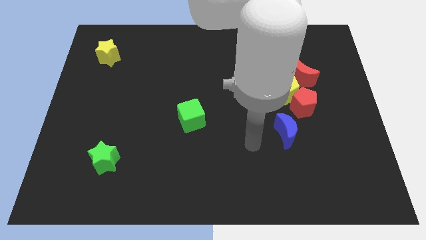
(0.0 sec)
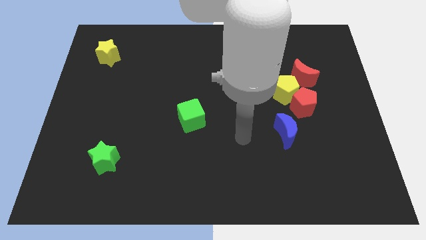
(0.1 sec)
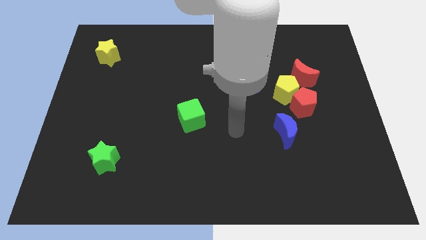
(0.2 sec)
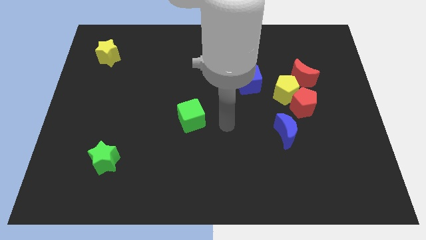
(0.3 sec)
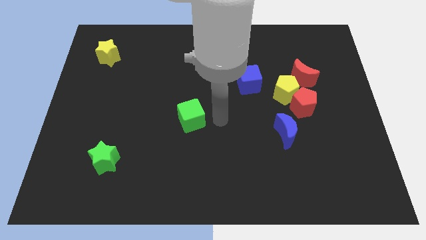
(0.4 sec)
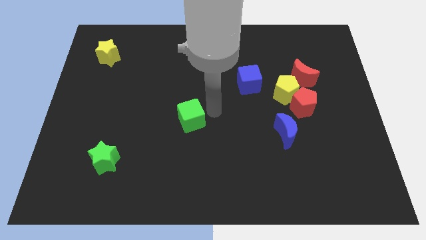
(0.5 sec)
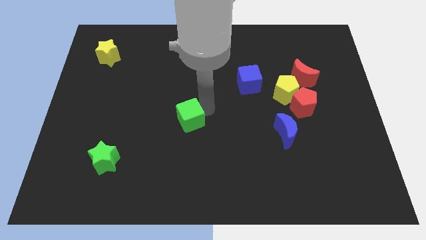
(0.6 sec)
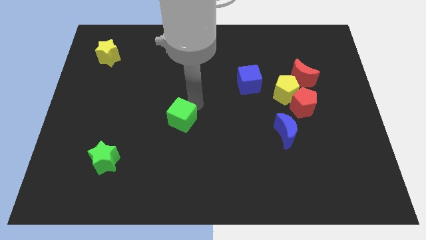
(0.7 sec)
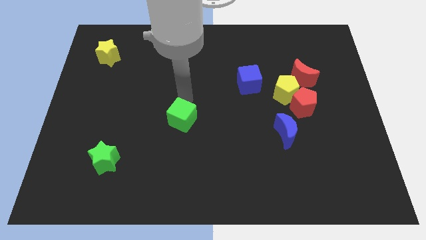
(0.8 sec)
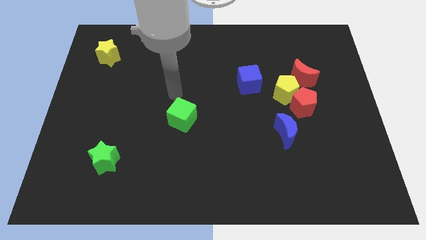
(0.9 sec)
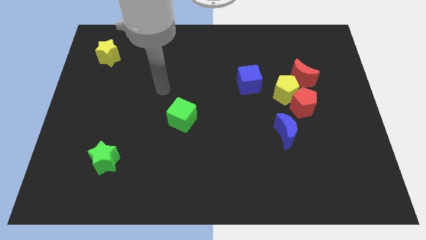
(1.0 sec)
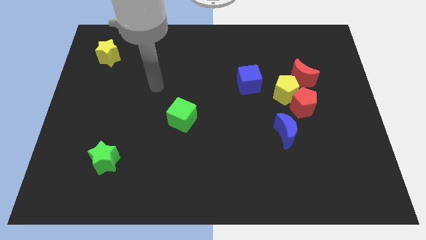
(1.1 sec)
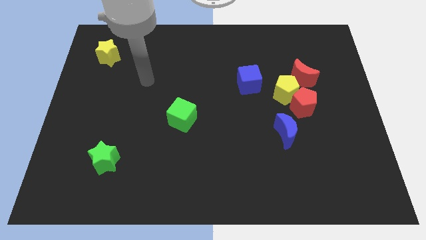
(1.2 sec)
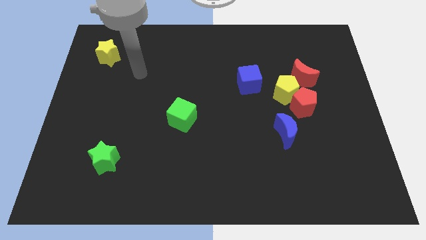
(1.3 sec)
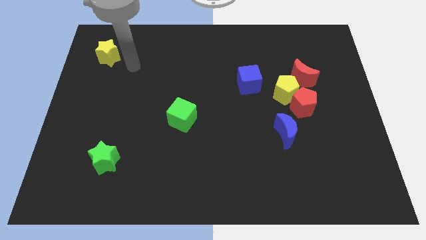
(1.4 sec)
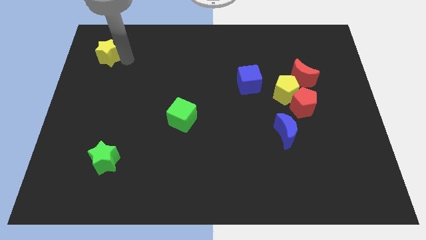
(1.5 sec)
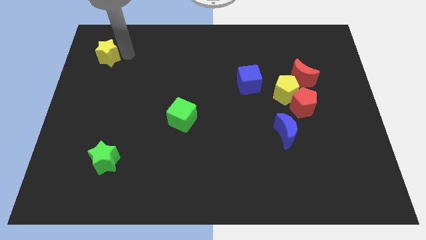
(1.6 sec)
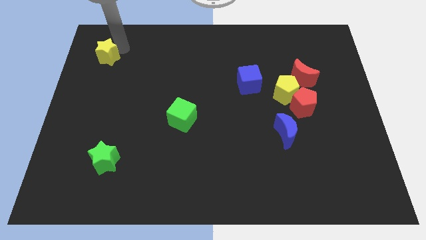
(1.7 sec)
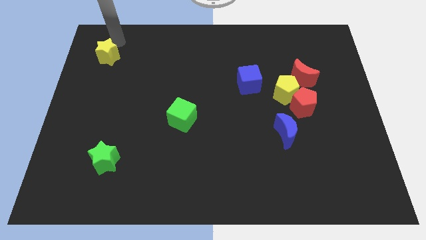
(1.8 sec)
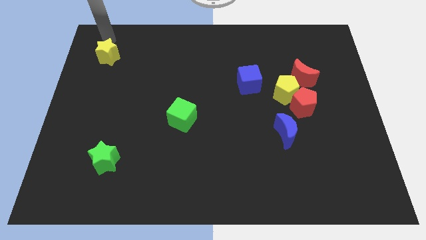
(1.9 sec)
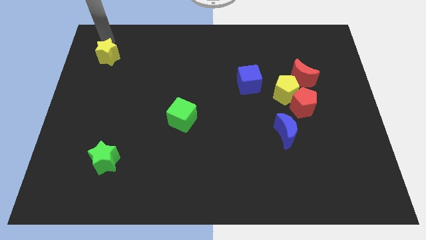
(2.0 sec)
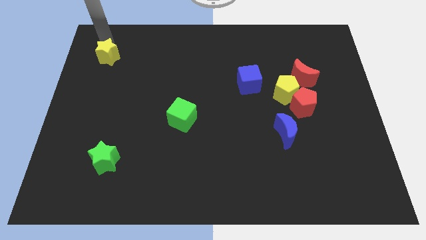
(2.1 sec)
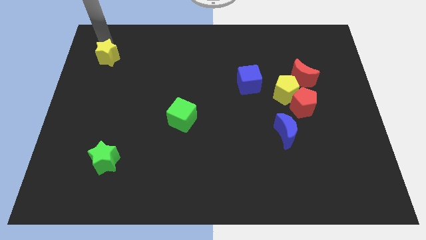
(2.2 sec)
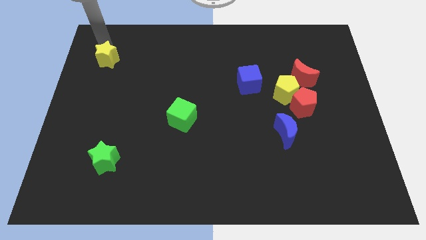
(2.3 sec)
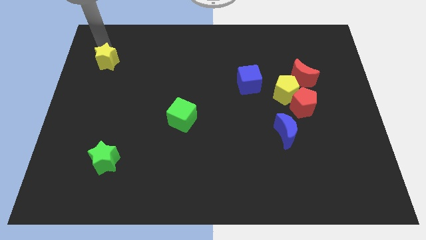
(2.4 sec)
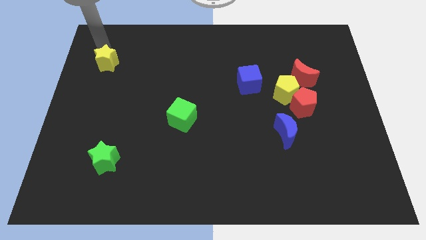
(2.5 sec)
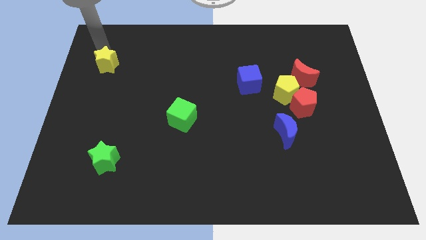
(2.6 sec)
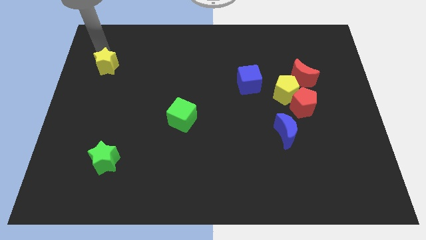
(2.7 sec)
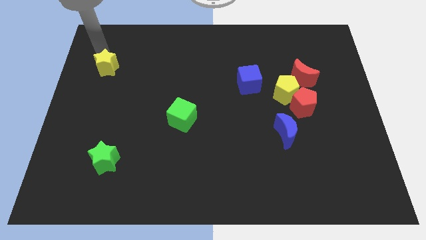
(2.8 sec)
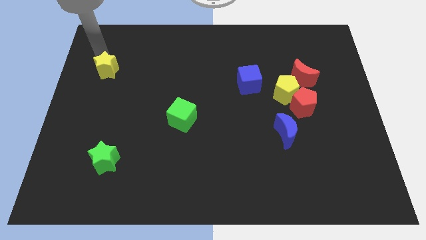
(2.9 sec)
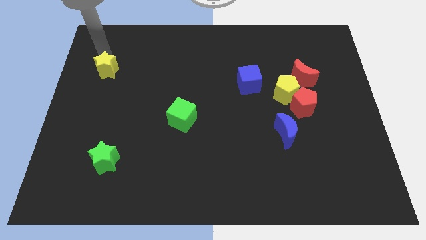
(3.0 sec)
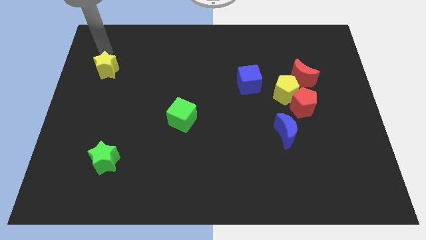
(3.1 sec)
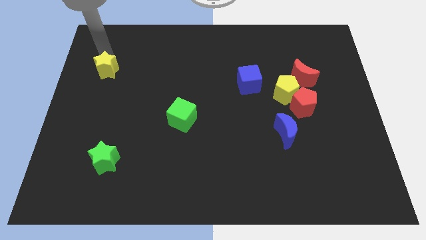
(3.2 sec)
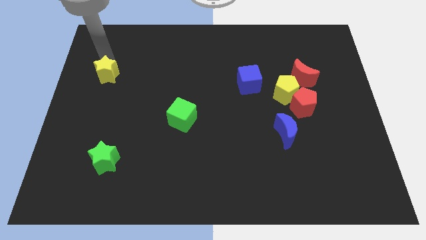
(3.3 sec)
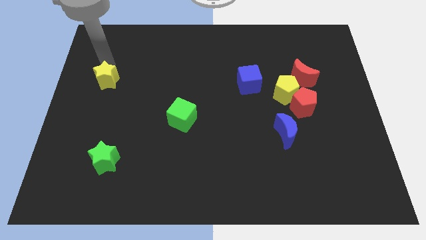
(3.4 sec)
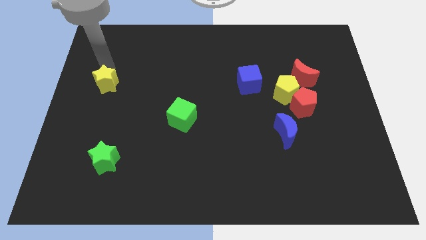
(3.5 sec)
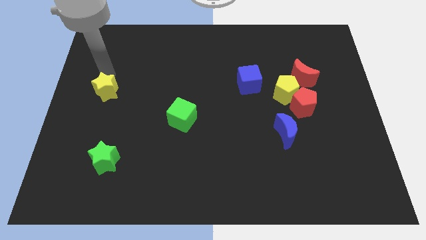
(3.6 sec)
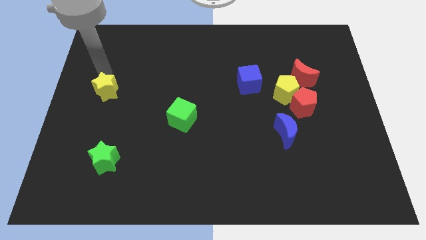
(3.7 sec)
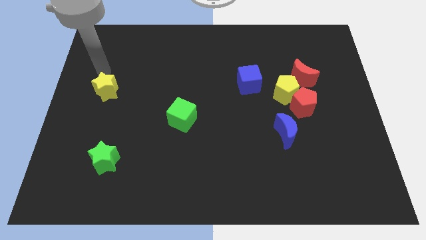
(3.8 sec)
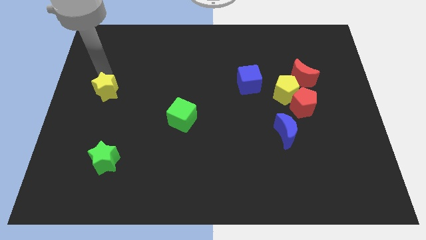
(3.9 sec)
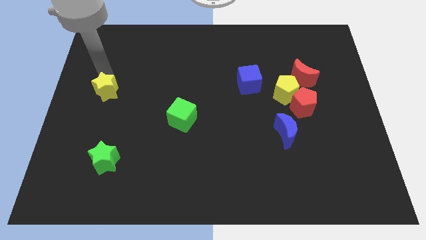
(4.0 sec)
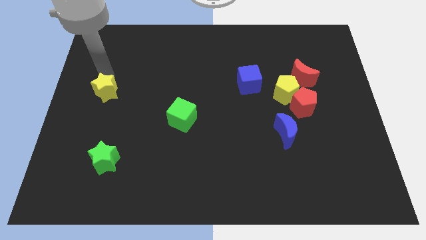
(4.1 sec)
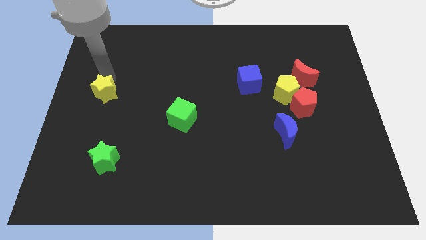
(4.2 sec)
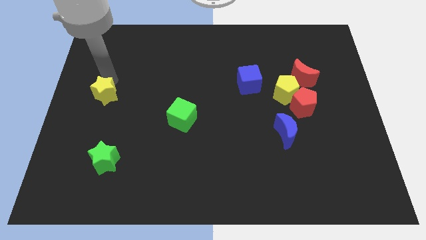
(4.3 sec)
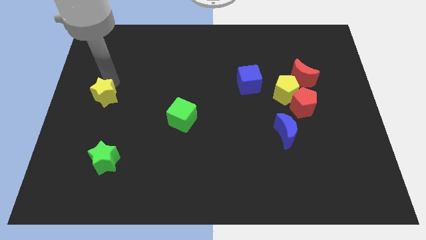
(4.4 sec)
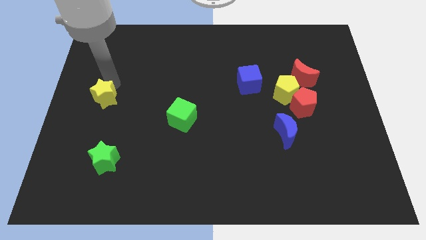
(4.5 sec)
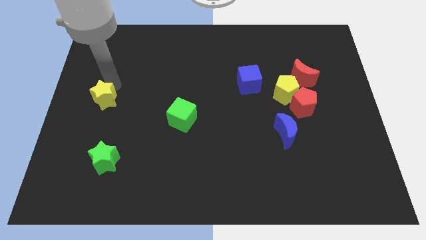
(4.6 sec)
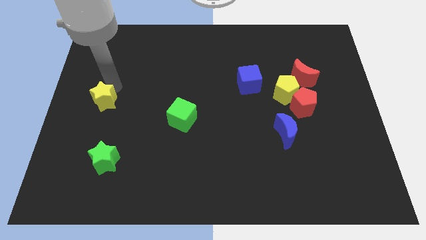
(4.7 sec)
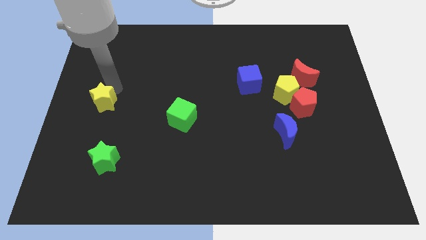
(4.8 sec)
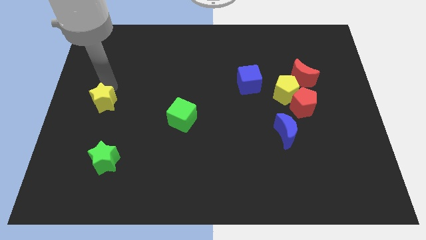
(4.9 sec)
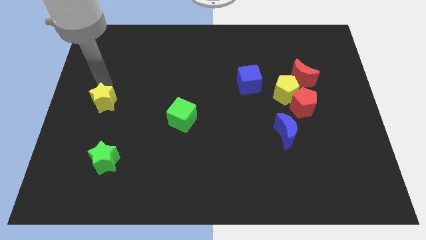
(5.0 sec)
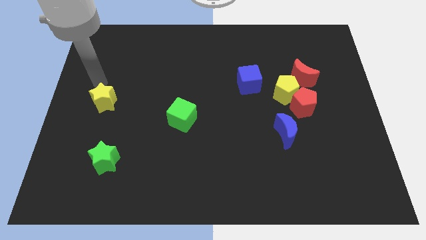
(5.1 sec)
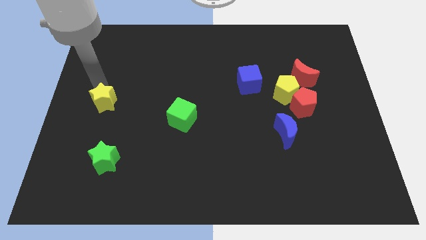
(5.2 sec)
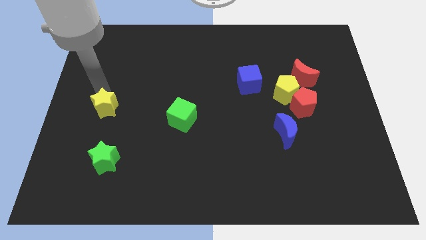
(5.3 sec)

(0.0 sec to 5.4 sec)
slide the yellow star to the top of the green star

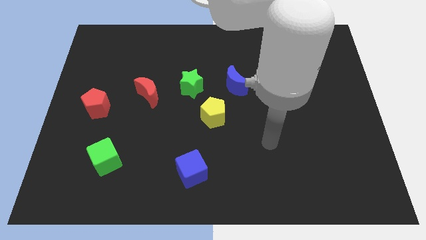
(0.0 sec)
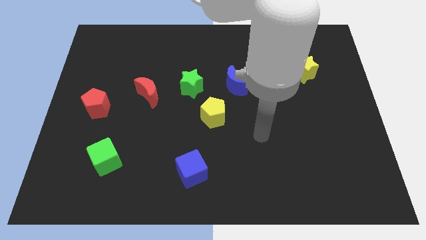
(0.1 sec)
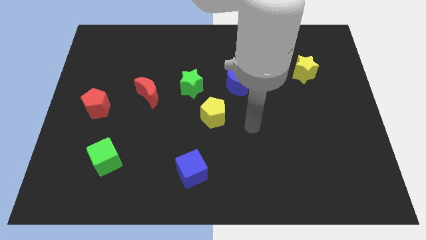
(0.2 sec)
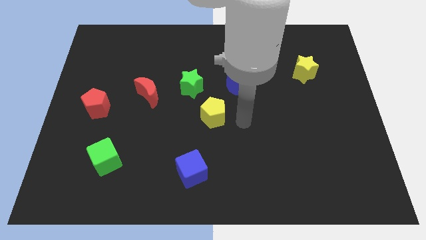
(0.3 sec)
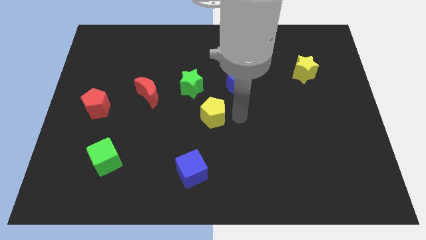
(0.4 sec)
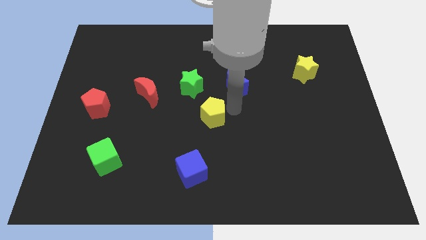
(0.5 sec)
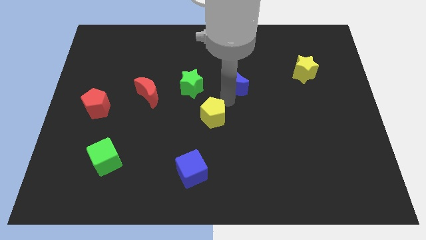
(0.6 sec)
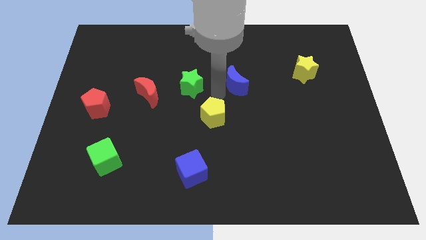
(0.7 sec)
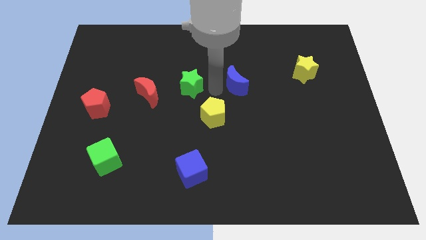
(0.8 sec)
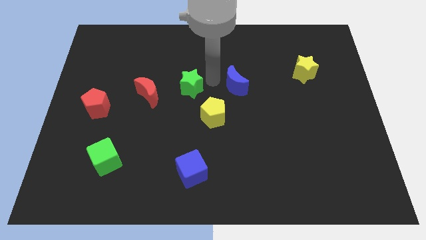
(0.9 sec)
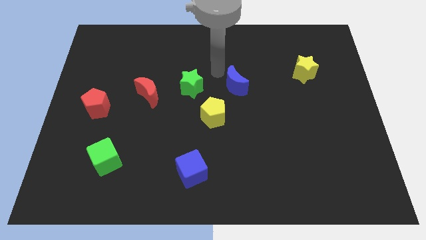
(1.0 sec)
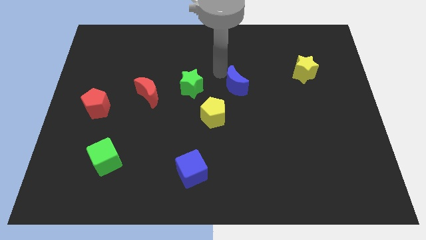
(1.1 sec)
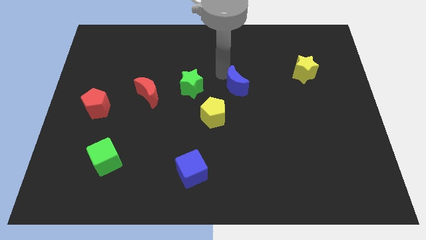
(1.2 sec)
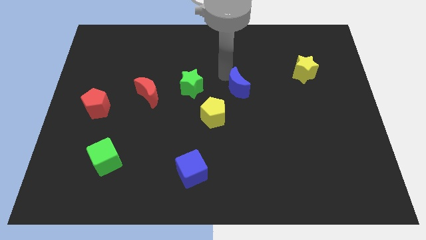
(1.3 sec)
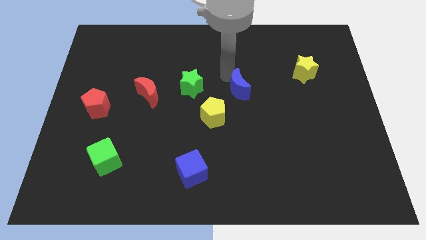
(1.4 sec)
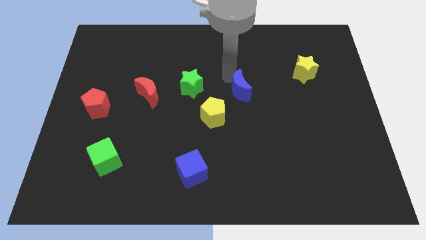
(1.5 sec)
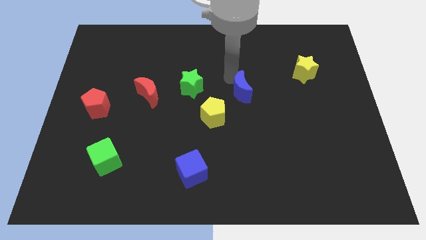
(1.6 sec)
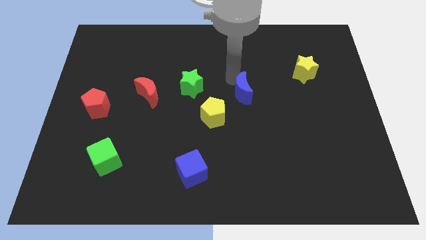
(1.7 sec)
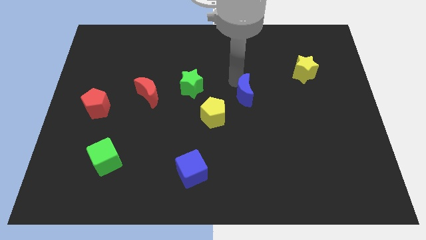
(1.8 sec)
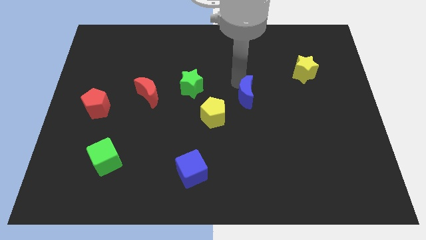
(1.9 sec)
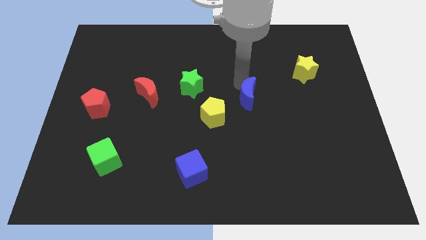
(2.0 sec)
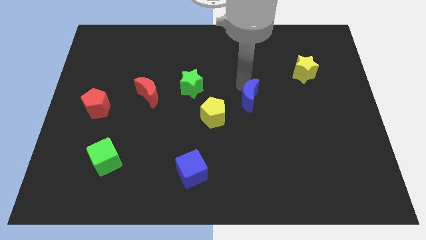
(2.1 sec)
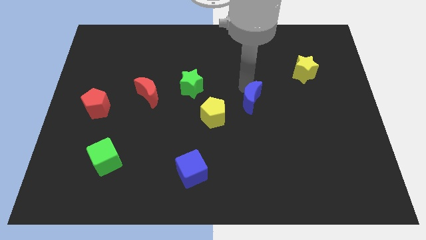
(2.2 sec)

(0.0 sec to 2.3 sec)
push the blue moon just right of the yellow pentagon
